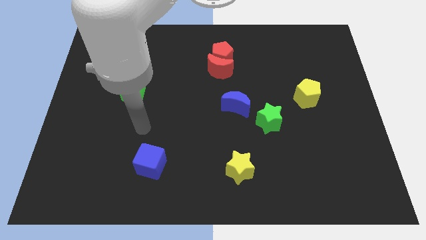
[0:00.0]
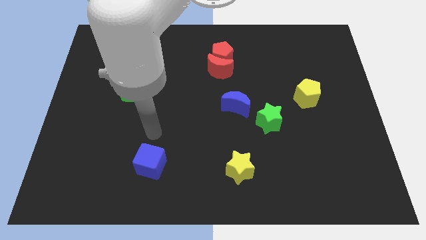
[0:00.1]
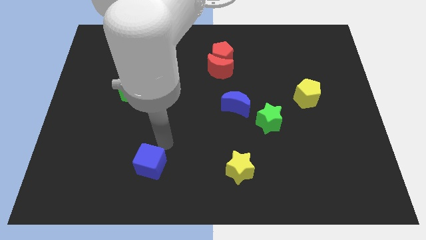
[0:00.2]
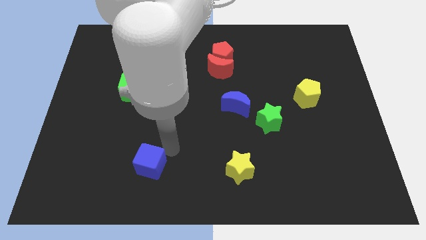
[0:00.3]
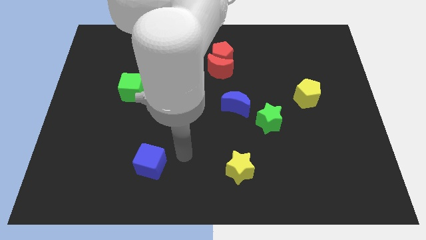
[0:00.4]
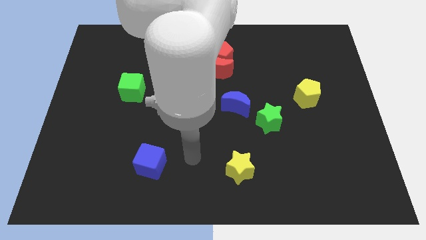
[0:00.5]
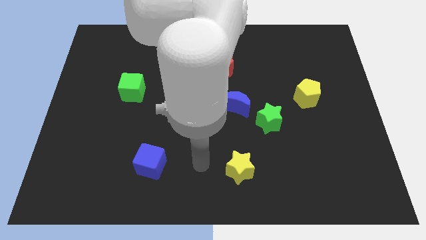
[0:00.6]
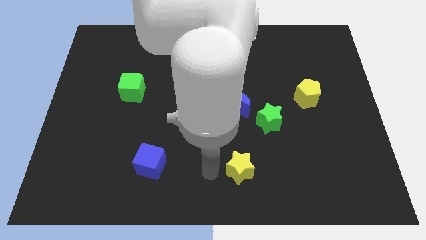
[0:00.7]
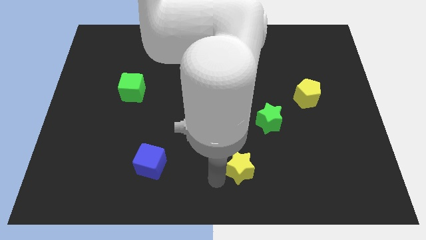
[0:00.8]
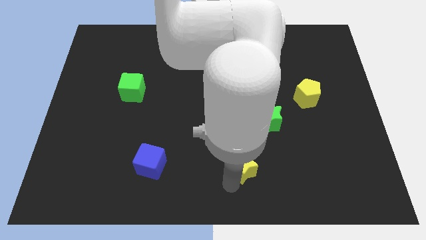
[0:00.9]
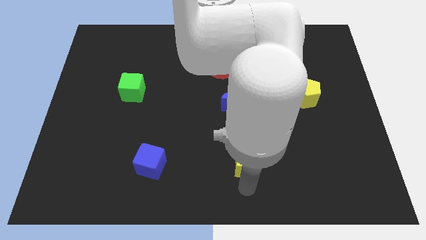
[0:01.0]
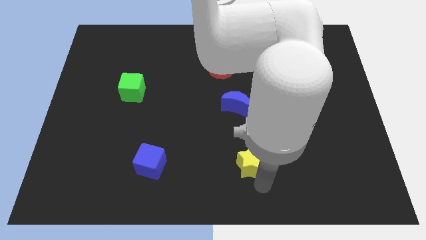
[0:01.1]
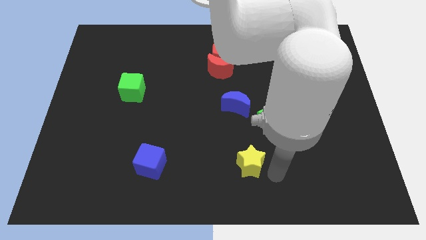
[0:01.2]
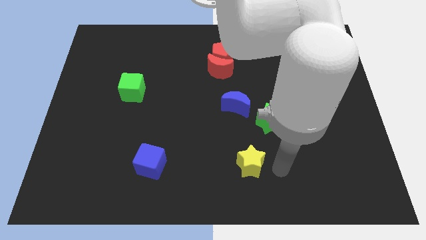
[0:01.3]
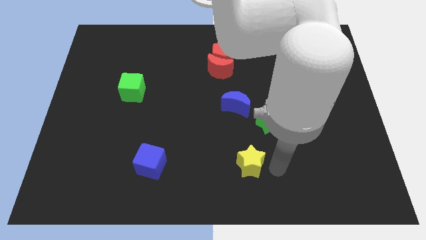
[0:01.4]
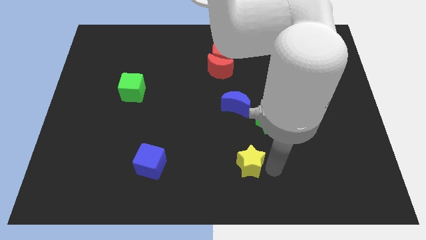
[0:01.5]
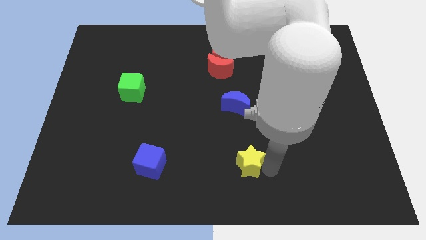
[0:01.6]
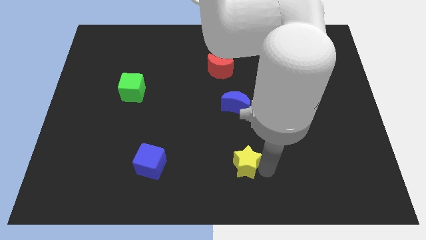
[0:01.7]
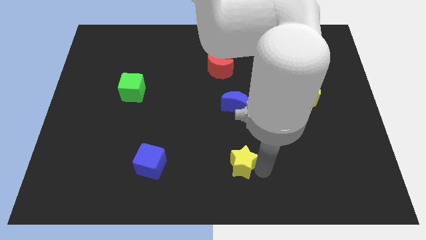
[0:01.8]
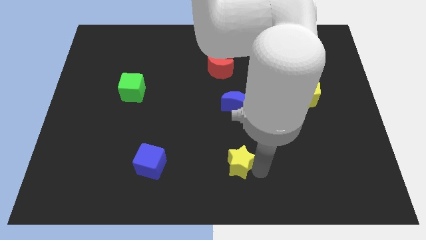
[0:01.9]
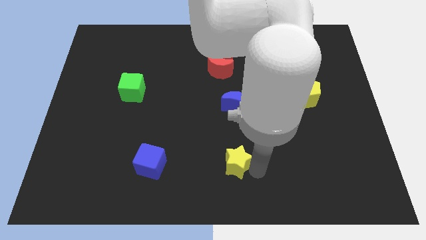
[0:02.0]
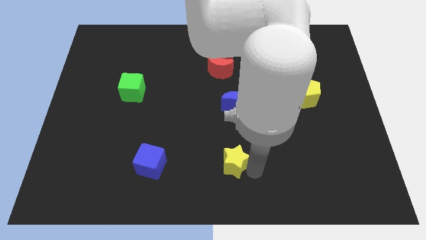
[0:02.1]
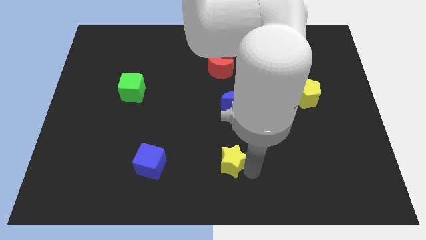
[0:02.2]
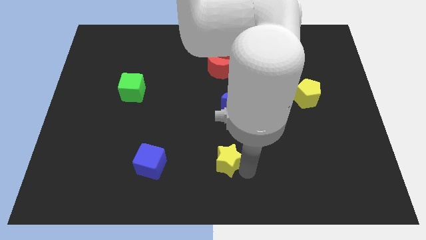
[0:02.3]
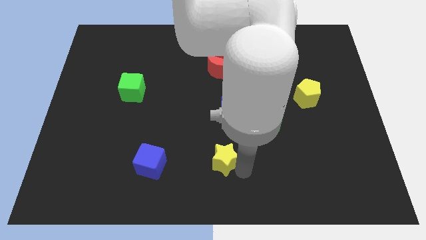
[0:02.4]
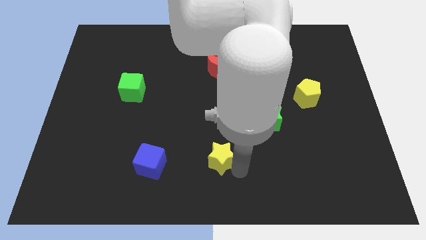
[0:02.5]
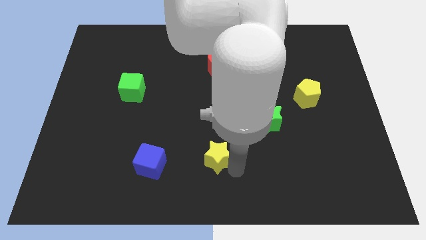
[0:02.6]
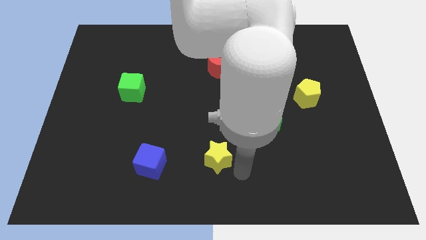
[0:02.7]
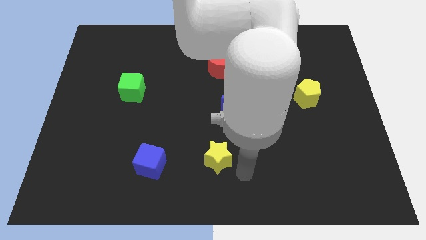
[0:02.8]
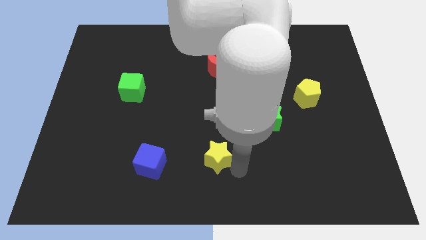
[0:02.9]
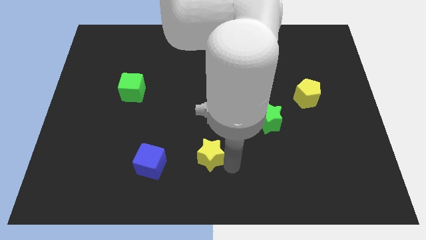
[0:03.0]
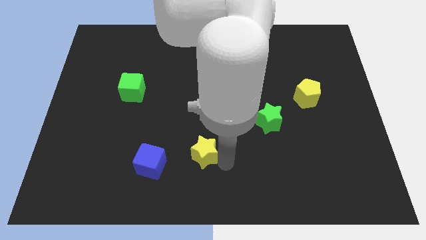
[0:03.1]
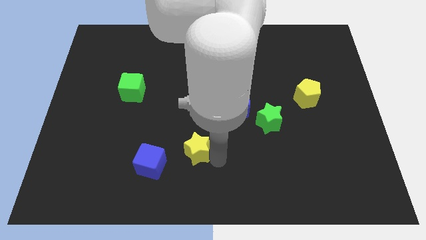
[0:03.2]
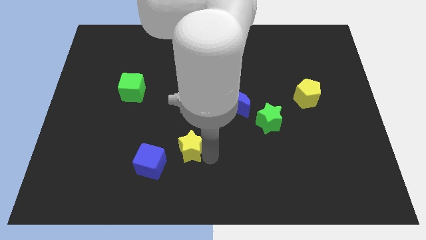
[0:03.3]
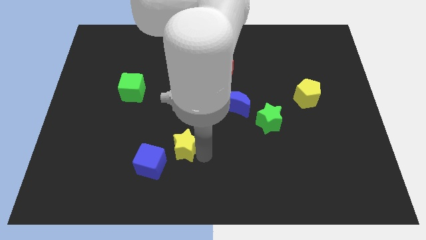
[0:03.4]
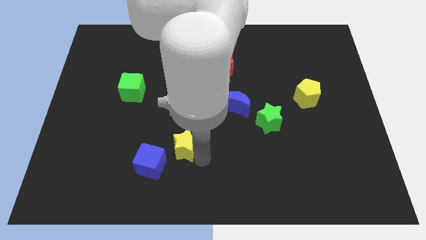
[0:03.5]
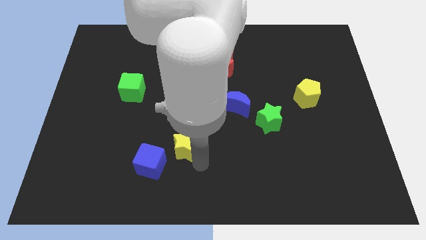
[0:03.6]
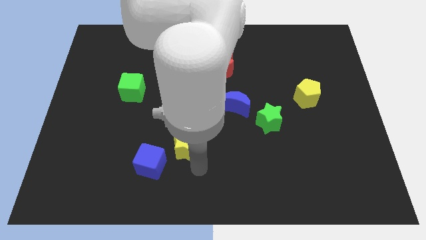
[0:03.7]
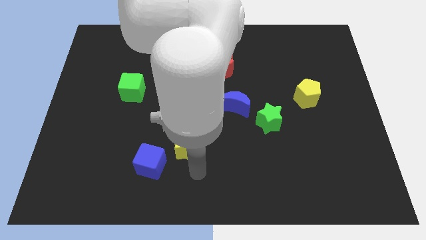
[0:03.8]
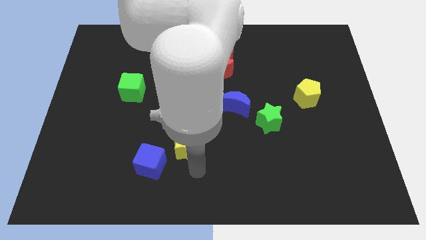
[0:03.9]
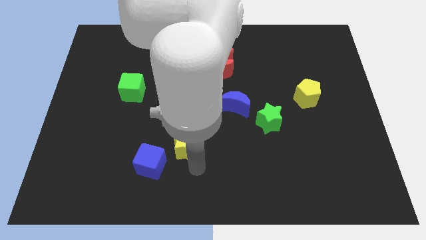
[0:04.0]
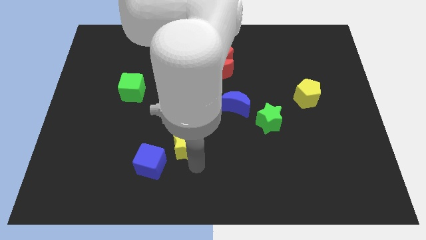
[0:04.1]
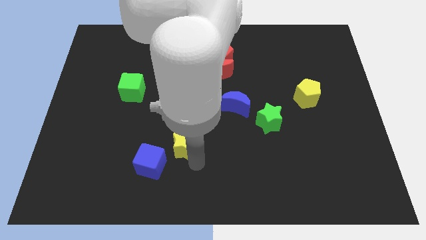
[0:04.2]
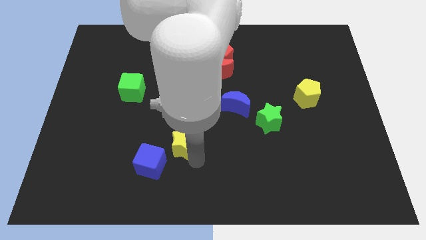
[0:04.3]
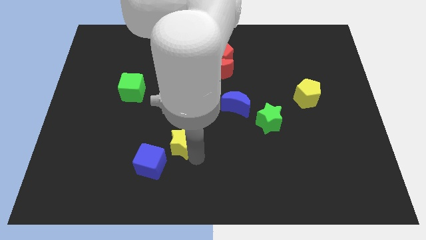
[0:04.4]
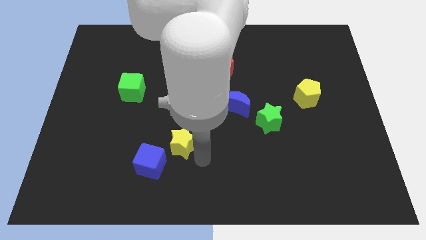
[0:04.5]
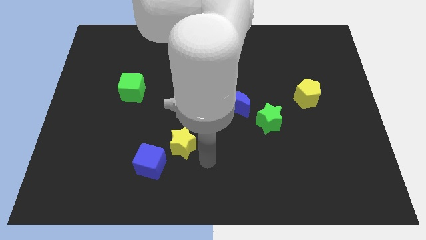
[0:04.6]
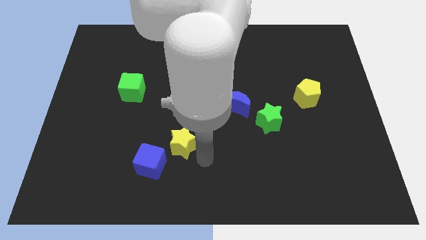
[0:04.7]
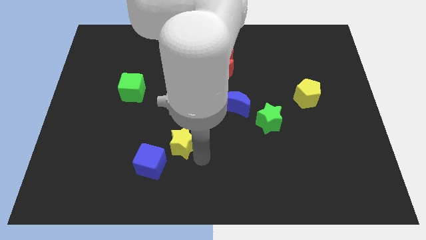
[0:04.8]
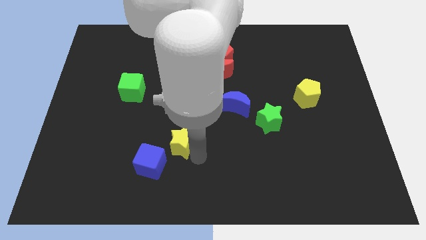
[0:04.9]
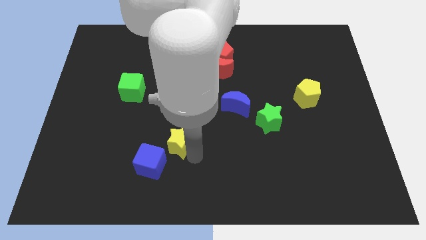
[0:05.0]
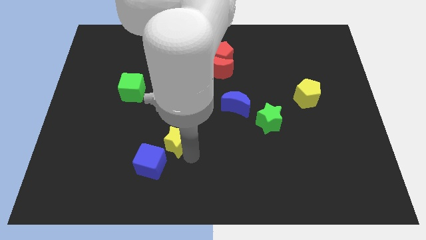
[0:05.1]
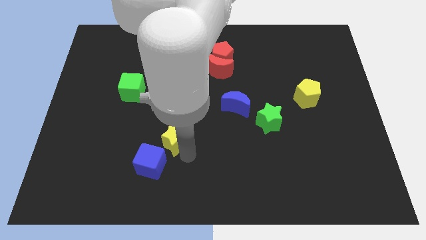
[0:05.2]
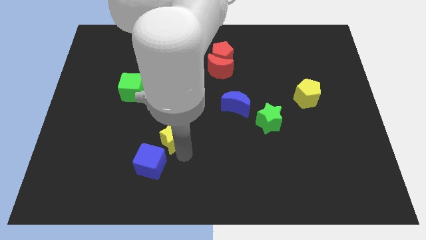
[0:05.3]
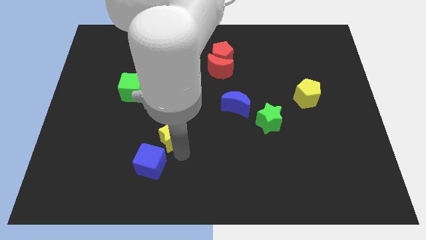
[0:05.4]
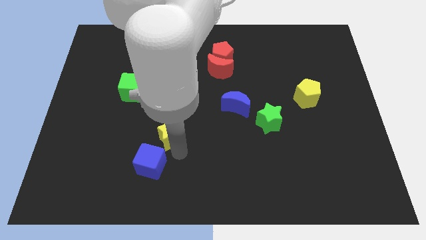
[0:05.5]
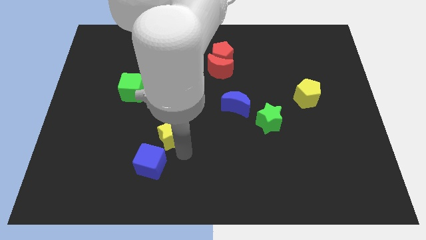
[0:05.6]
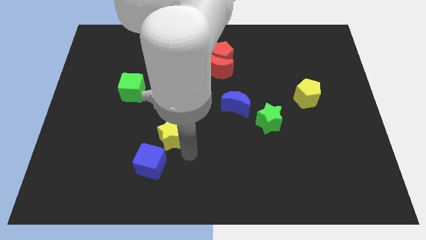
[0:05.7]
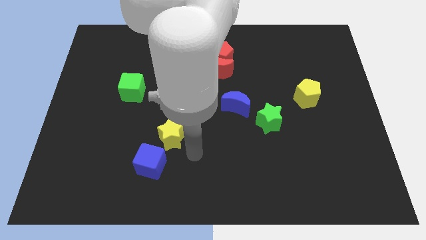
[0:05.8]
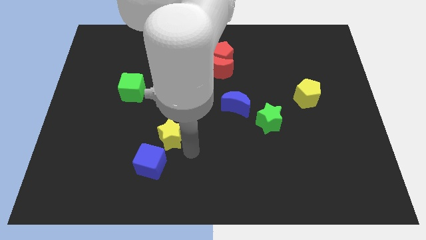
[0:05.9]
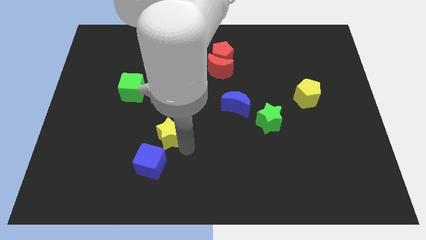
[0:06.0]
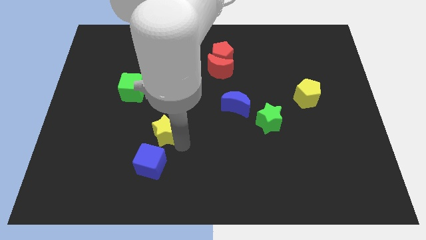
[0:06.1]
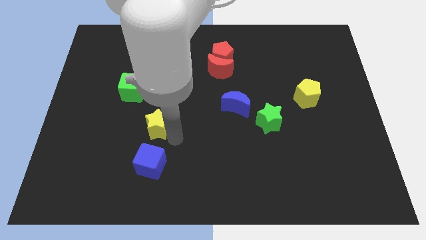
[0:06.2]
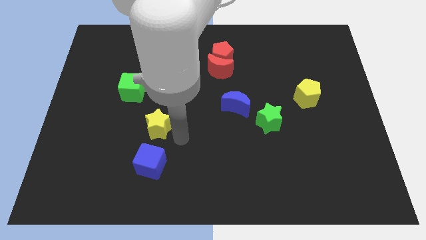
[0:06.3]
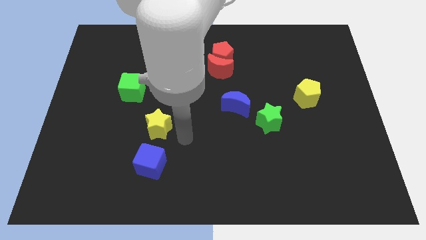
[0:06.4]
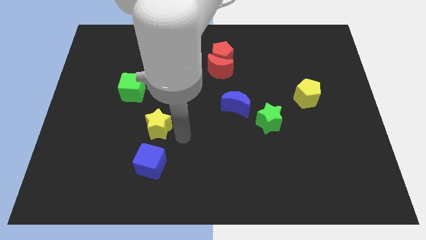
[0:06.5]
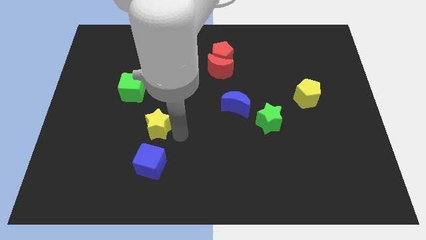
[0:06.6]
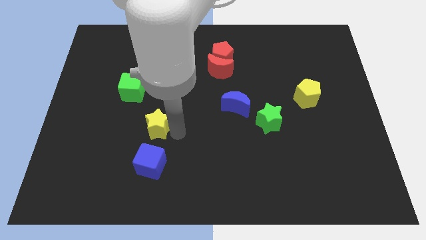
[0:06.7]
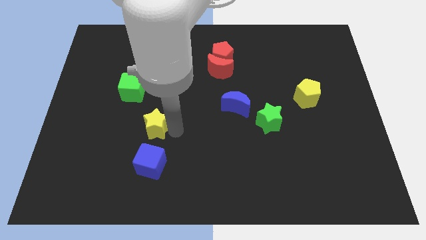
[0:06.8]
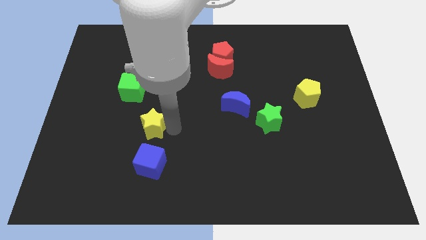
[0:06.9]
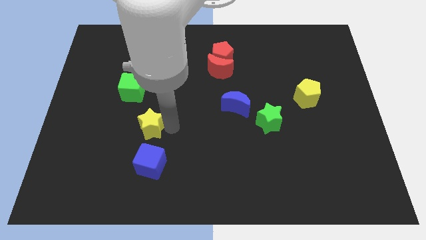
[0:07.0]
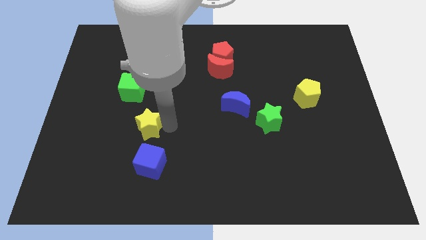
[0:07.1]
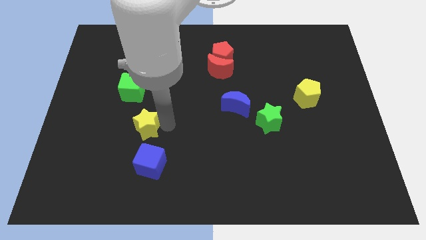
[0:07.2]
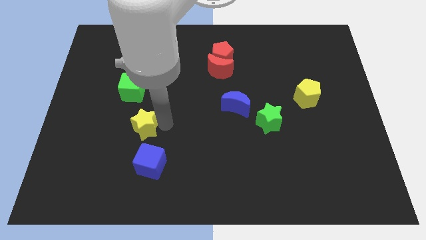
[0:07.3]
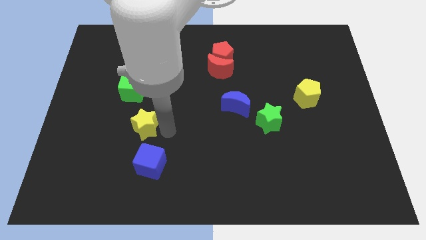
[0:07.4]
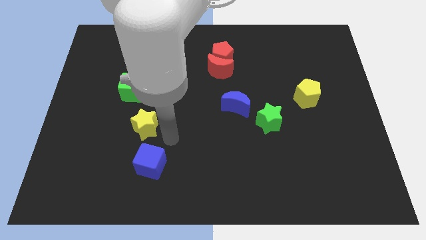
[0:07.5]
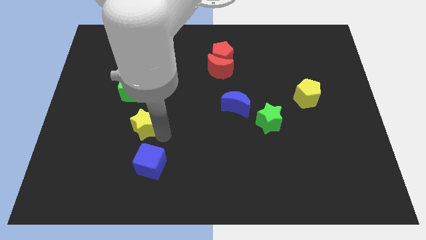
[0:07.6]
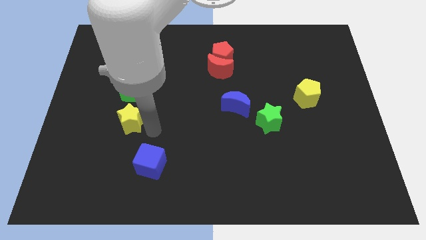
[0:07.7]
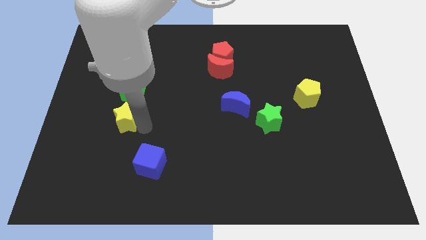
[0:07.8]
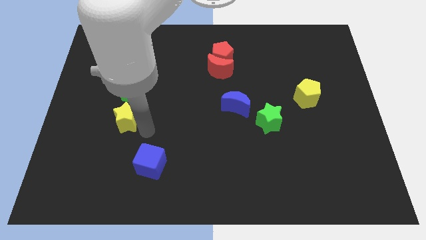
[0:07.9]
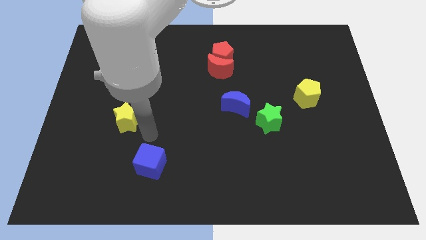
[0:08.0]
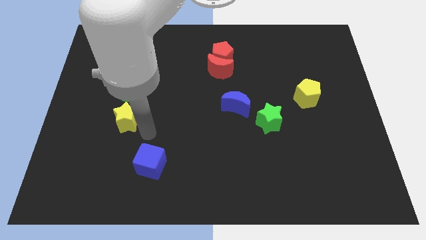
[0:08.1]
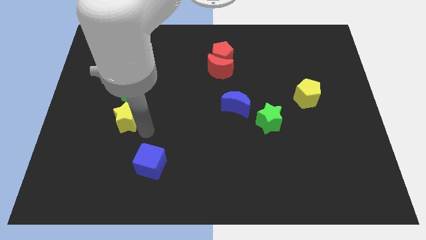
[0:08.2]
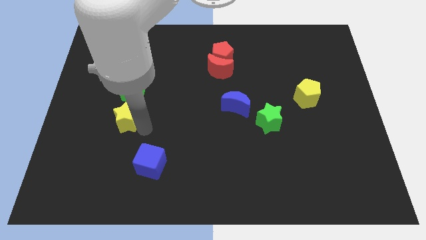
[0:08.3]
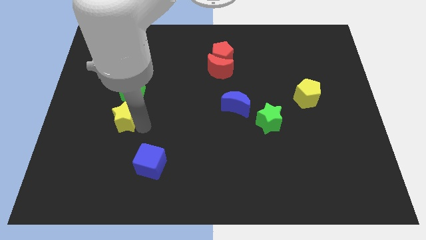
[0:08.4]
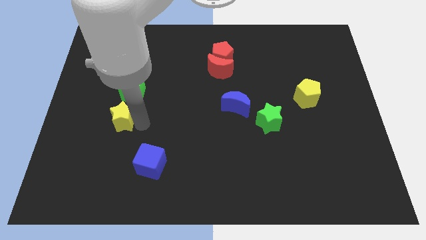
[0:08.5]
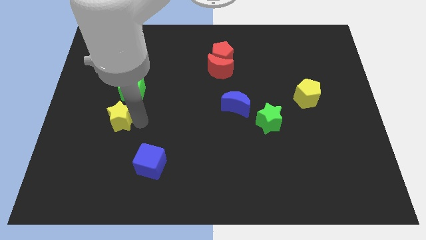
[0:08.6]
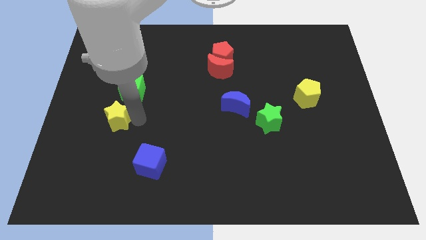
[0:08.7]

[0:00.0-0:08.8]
push the yellow star diagonally down and to the left of the green cube
